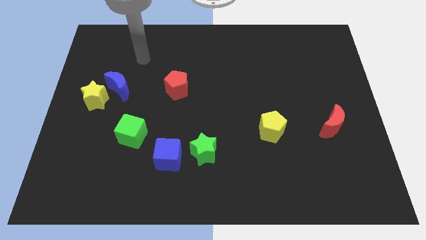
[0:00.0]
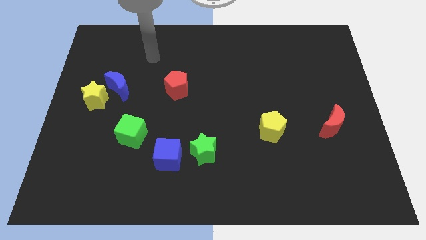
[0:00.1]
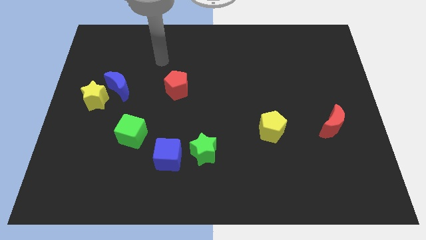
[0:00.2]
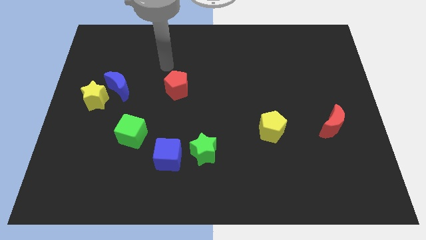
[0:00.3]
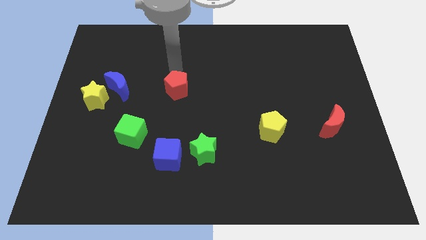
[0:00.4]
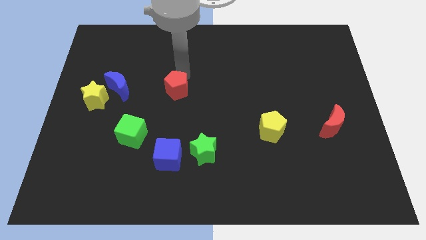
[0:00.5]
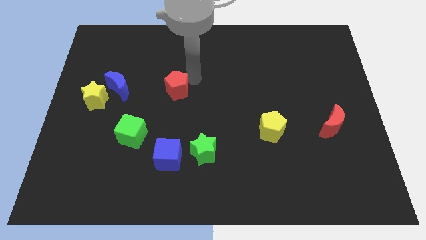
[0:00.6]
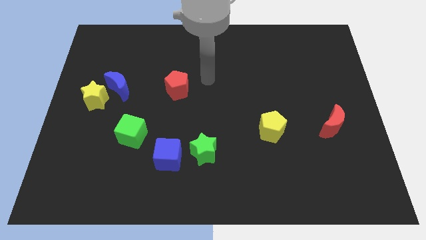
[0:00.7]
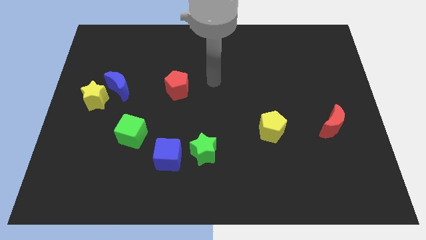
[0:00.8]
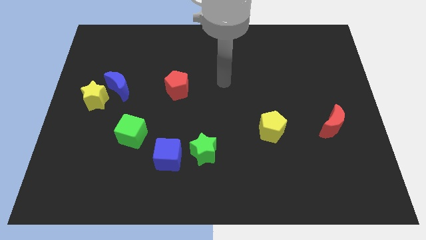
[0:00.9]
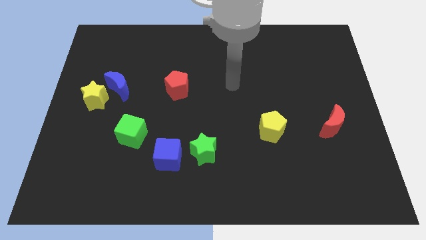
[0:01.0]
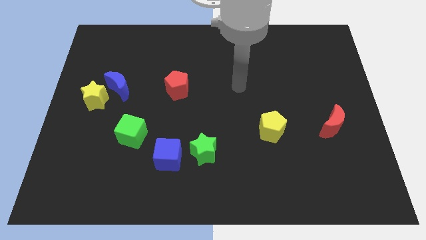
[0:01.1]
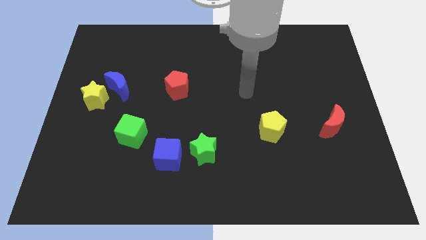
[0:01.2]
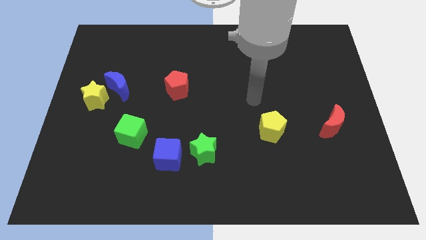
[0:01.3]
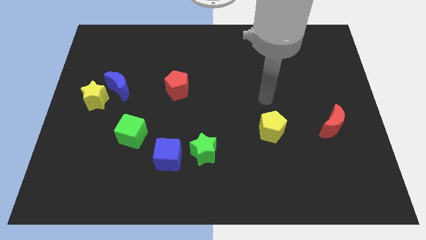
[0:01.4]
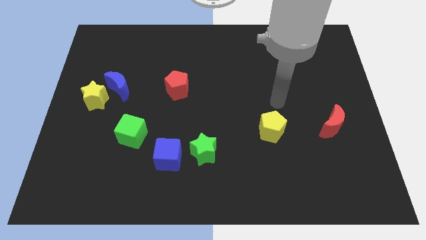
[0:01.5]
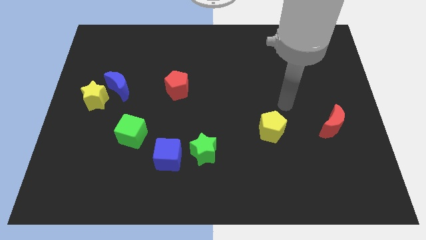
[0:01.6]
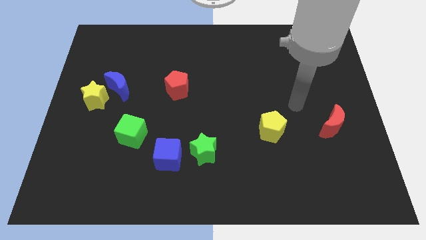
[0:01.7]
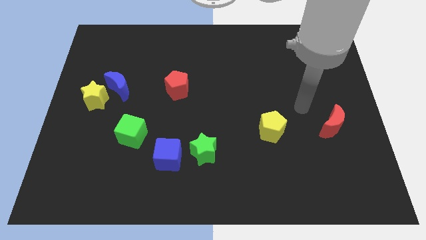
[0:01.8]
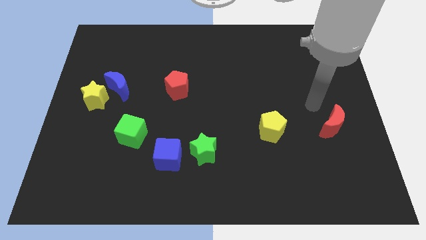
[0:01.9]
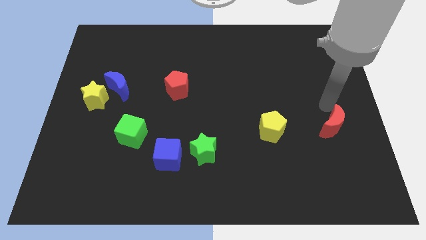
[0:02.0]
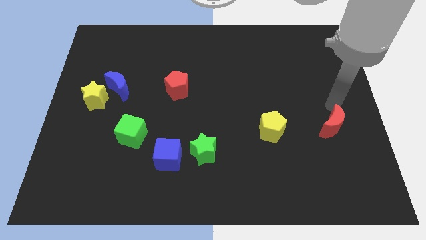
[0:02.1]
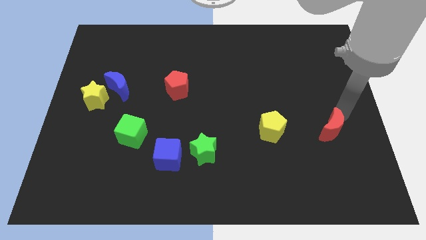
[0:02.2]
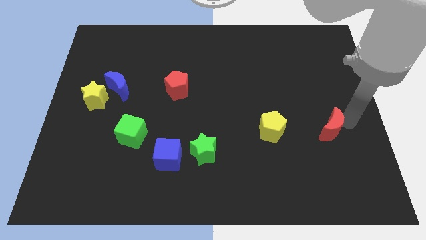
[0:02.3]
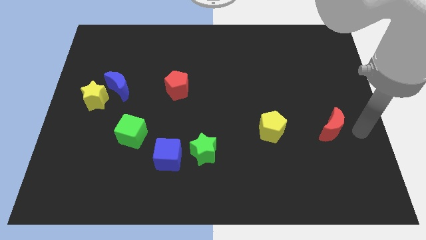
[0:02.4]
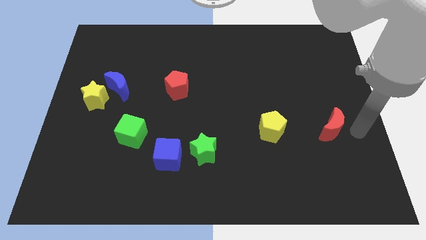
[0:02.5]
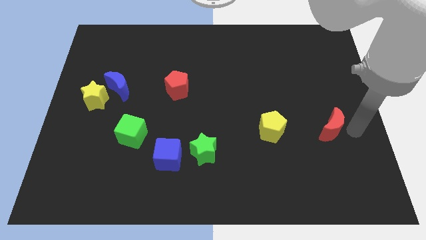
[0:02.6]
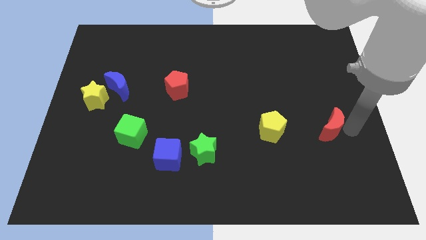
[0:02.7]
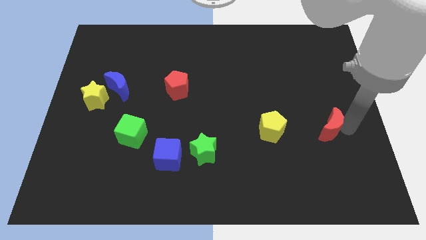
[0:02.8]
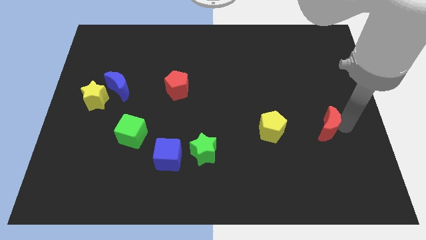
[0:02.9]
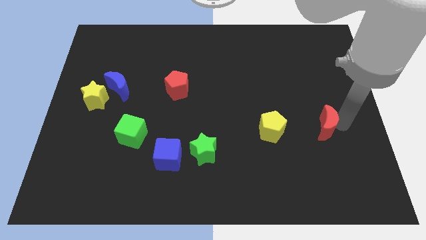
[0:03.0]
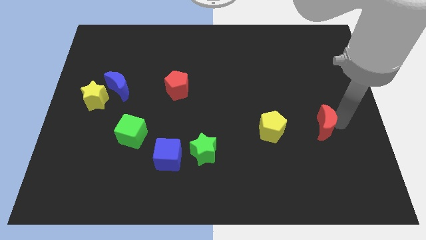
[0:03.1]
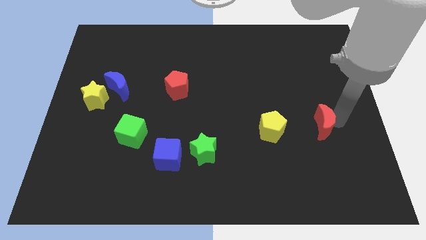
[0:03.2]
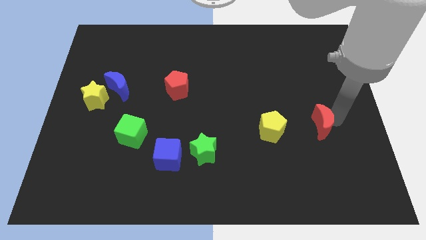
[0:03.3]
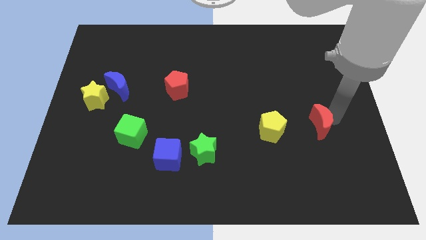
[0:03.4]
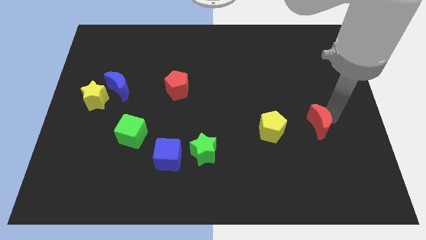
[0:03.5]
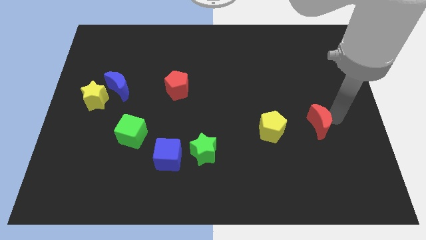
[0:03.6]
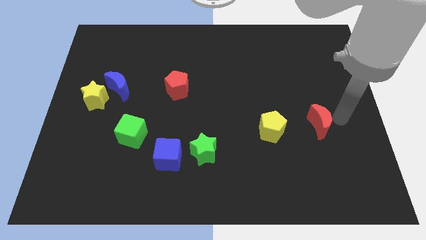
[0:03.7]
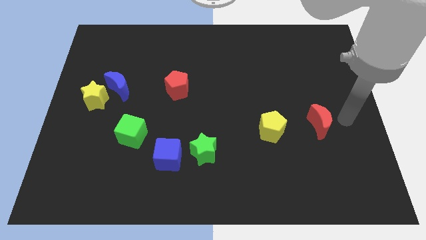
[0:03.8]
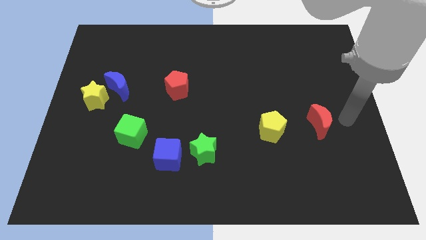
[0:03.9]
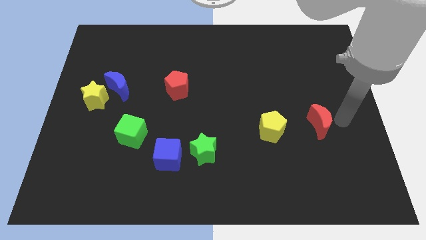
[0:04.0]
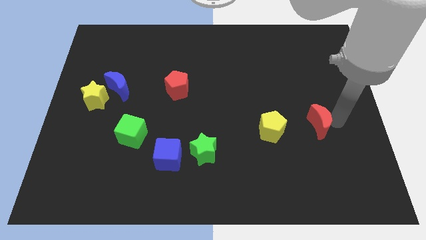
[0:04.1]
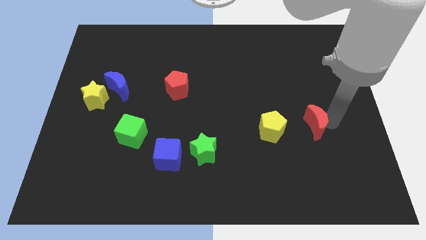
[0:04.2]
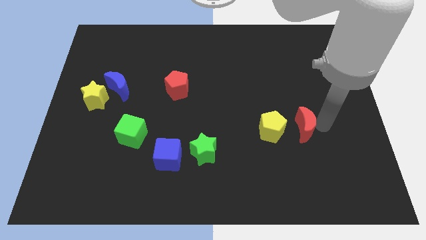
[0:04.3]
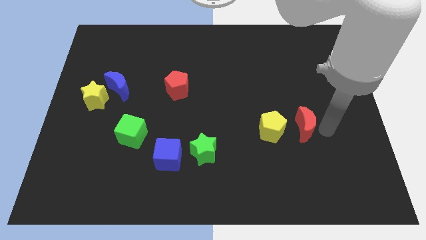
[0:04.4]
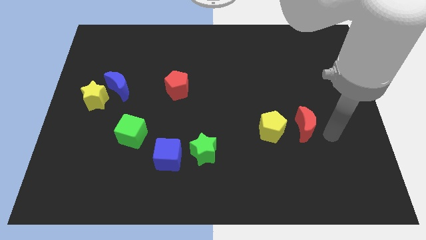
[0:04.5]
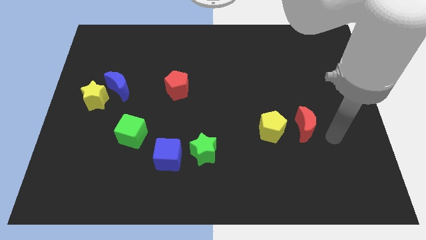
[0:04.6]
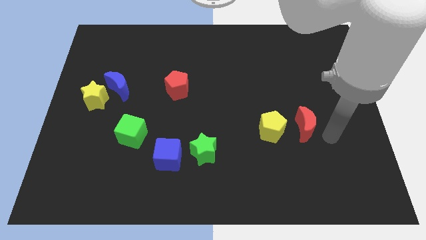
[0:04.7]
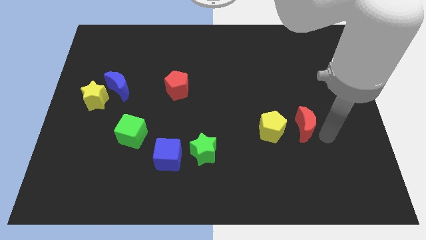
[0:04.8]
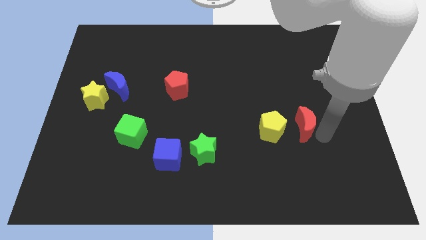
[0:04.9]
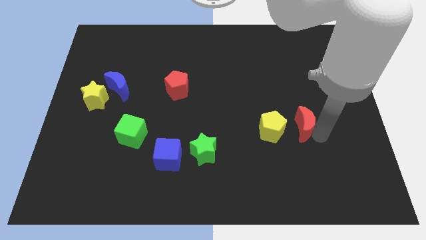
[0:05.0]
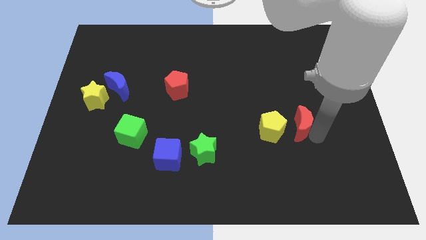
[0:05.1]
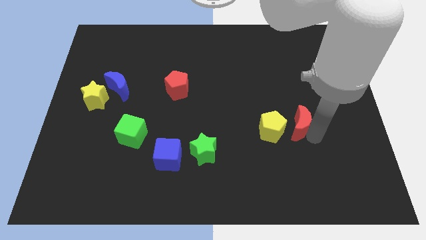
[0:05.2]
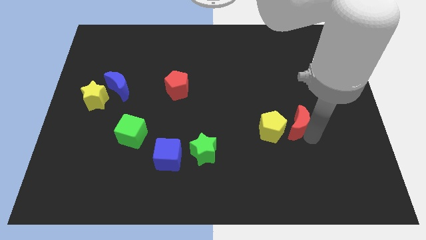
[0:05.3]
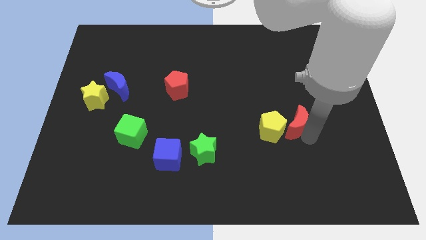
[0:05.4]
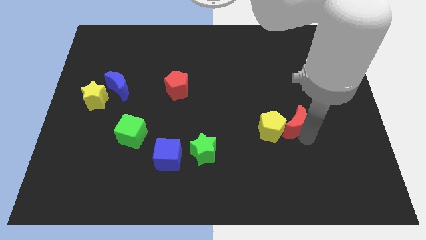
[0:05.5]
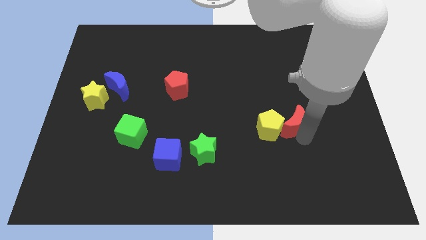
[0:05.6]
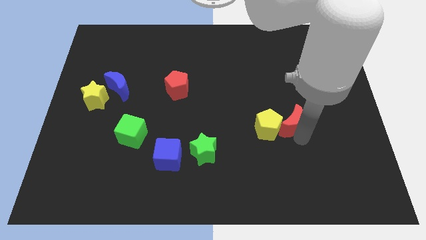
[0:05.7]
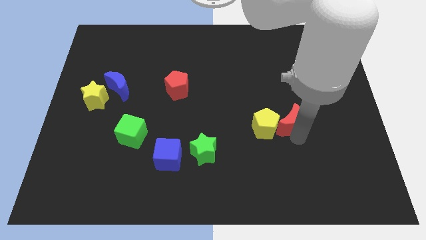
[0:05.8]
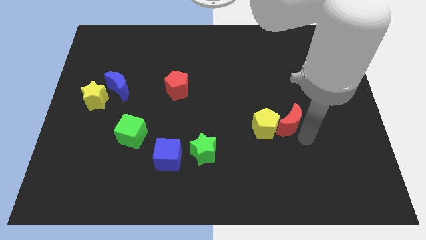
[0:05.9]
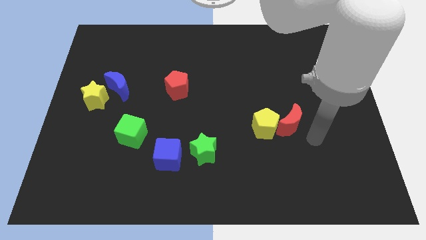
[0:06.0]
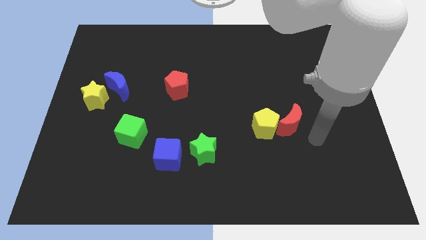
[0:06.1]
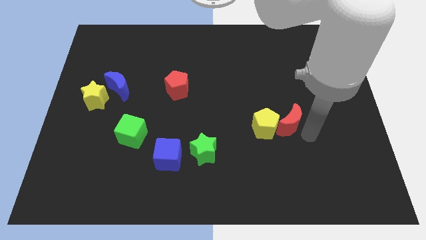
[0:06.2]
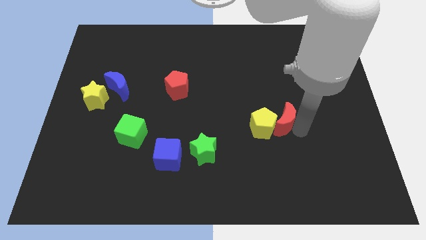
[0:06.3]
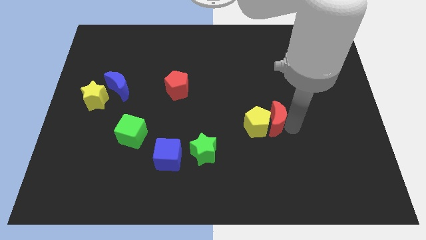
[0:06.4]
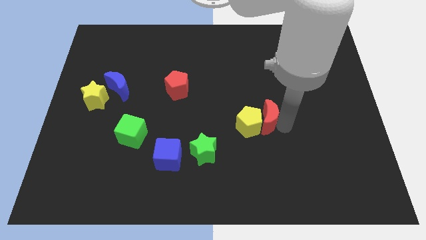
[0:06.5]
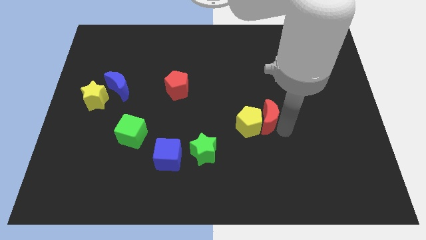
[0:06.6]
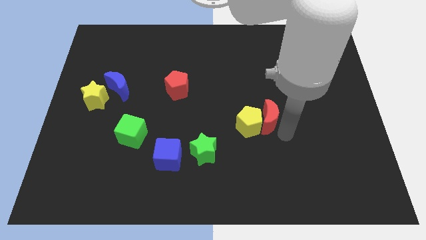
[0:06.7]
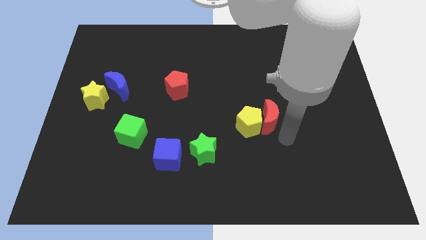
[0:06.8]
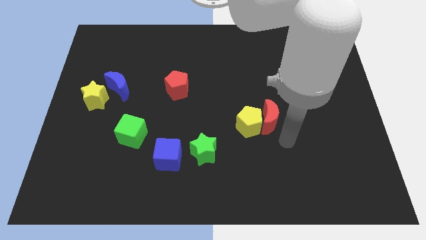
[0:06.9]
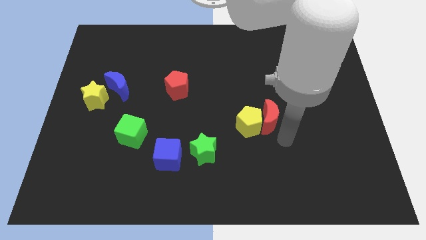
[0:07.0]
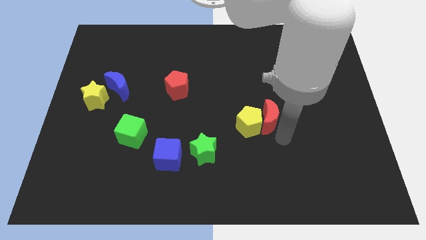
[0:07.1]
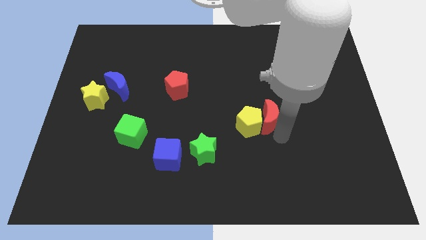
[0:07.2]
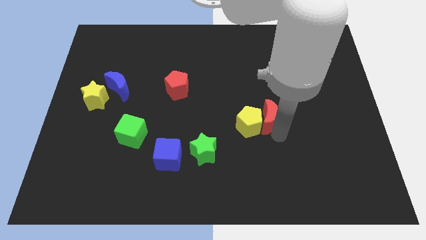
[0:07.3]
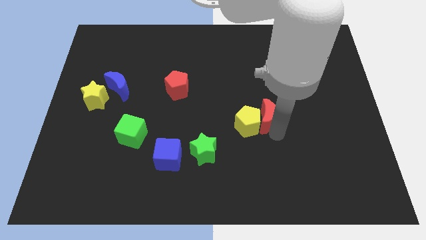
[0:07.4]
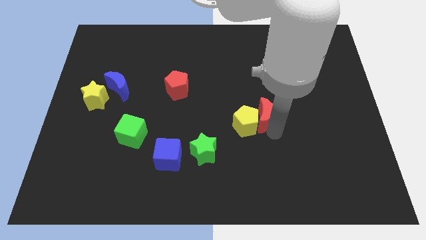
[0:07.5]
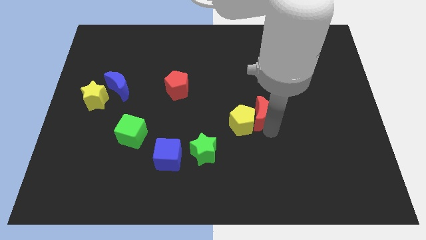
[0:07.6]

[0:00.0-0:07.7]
slide the red moon to the middle of the board
